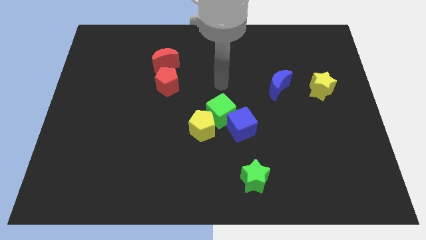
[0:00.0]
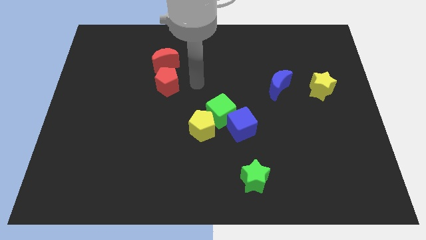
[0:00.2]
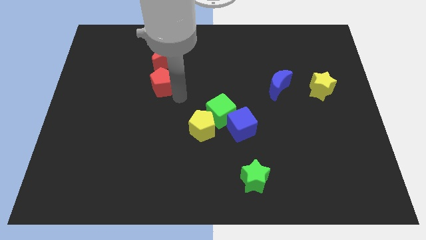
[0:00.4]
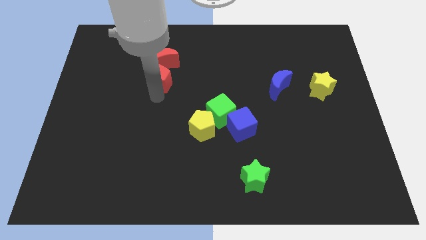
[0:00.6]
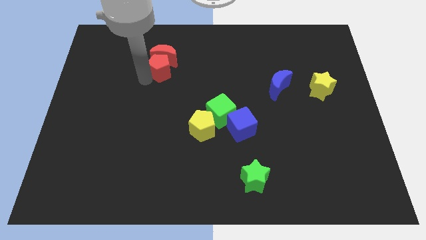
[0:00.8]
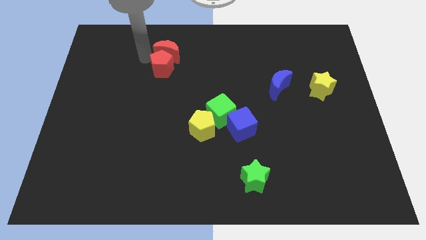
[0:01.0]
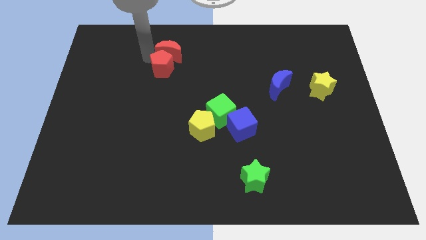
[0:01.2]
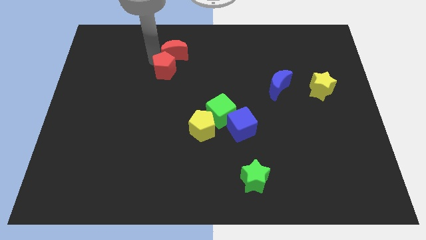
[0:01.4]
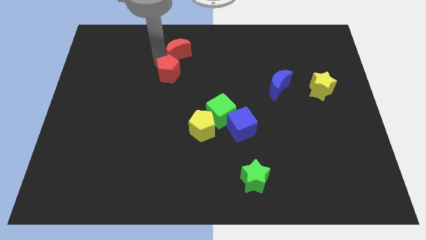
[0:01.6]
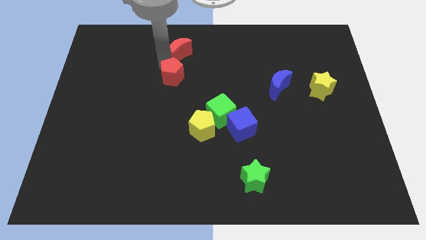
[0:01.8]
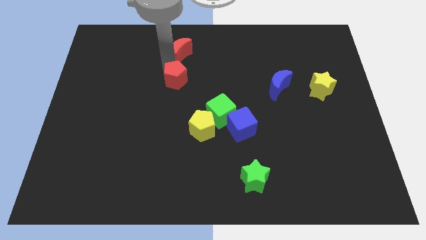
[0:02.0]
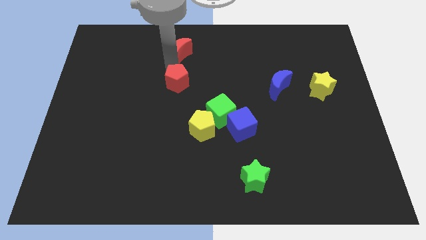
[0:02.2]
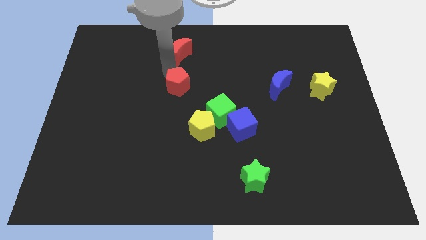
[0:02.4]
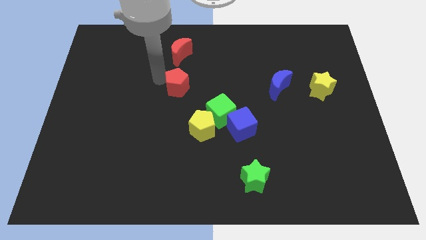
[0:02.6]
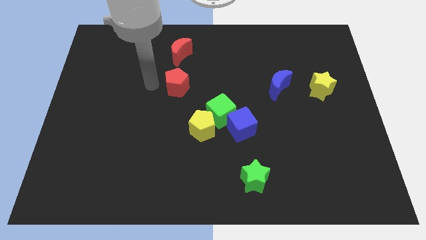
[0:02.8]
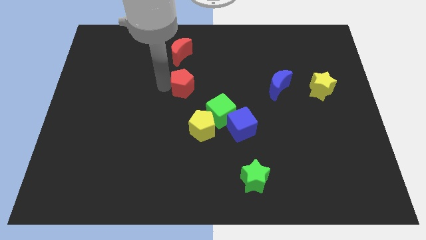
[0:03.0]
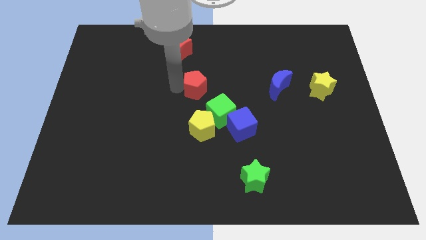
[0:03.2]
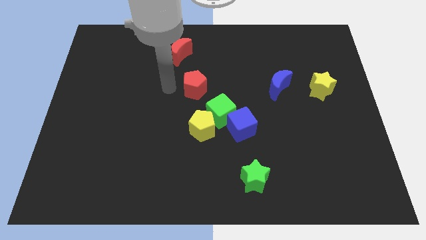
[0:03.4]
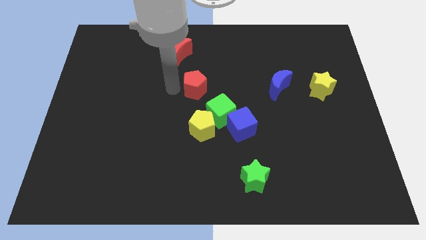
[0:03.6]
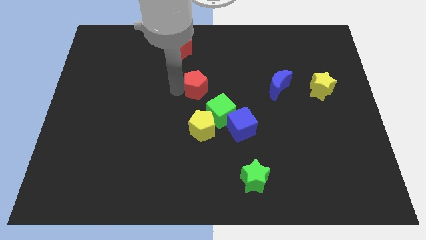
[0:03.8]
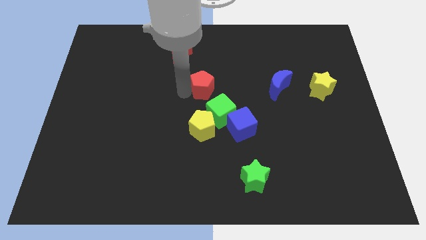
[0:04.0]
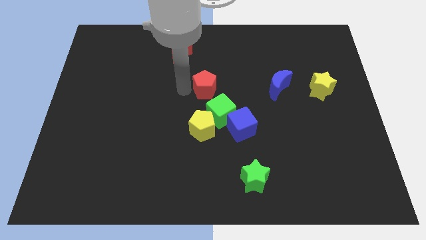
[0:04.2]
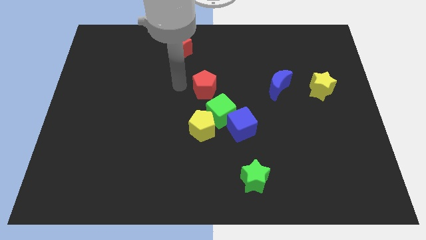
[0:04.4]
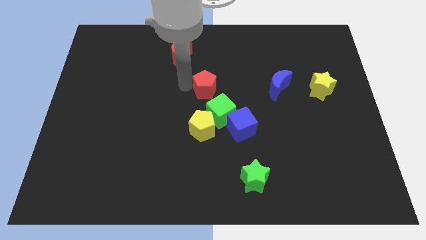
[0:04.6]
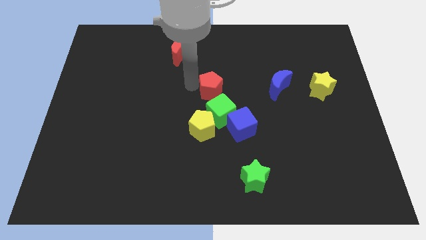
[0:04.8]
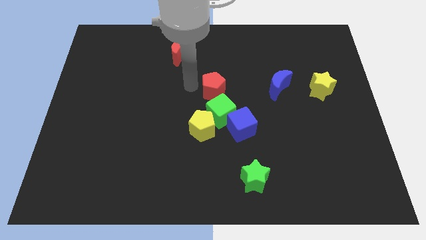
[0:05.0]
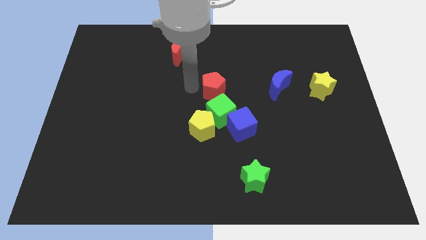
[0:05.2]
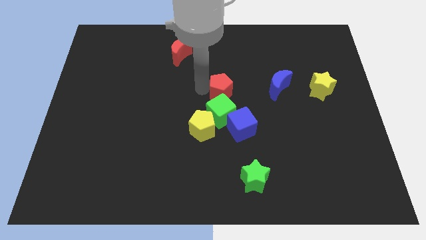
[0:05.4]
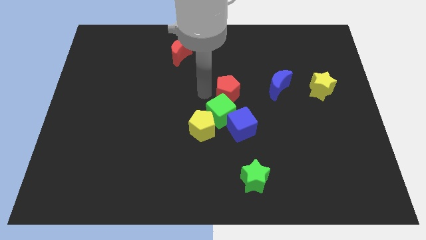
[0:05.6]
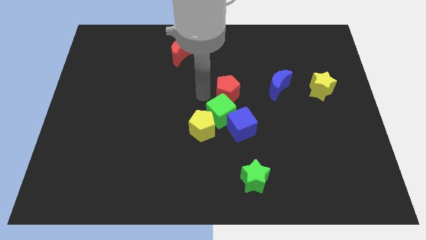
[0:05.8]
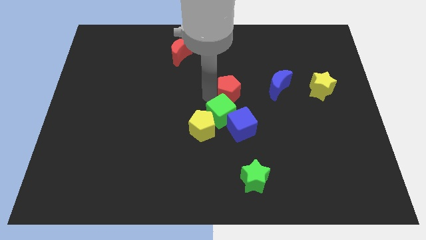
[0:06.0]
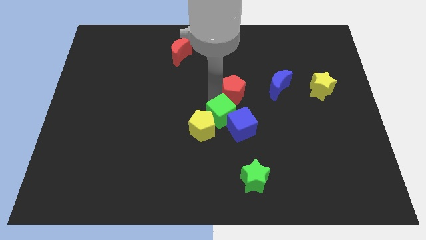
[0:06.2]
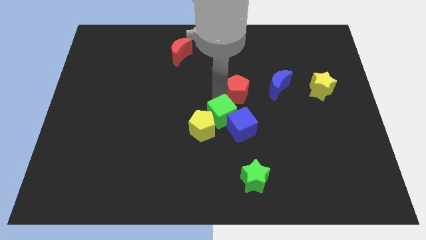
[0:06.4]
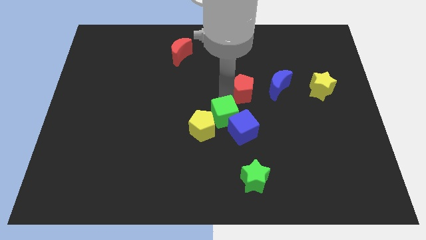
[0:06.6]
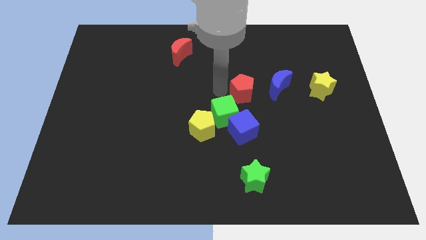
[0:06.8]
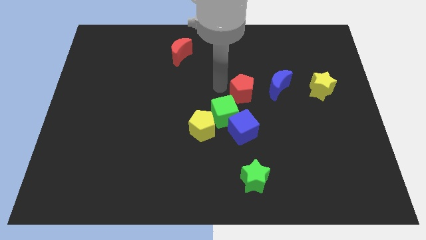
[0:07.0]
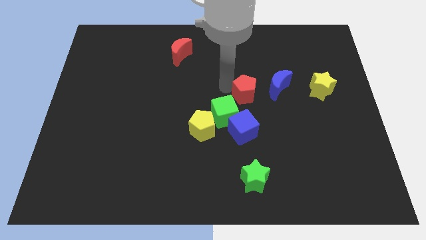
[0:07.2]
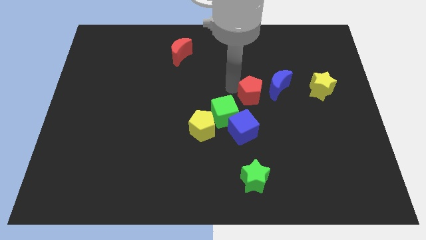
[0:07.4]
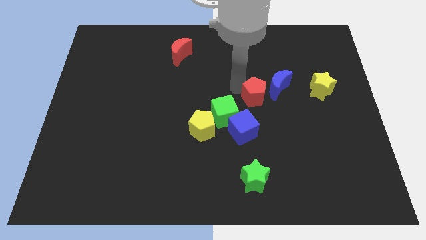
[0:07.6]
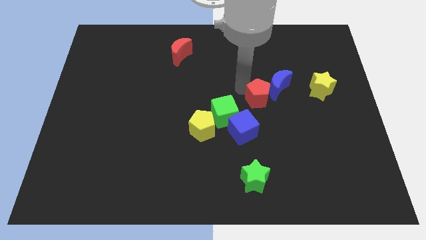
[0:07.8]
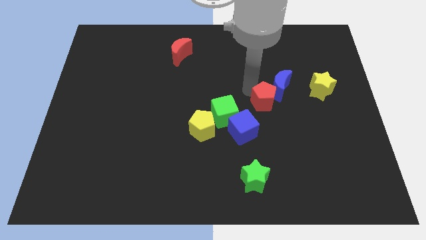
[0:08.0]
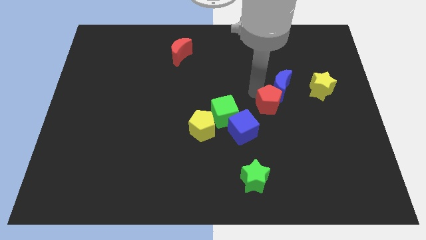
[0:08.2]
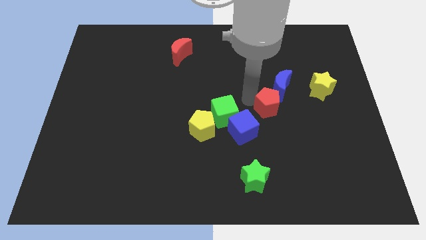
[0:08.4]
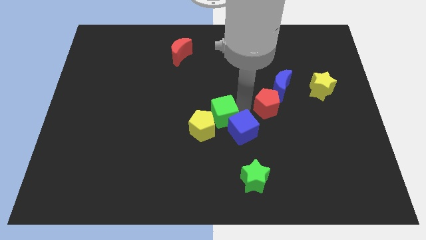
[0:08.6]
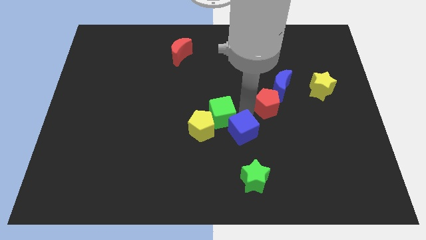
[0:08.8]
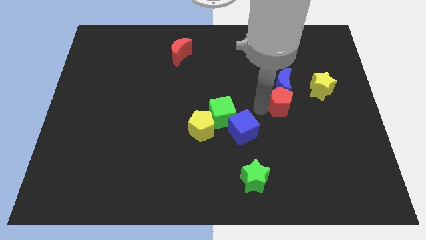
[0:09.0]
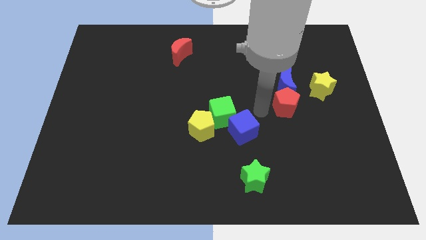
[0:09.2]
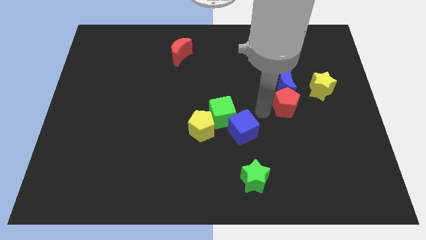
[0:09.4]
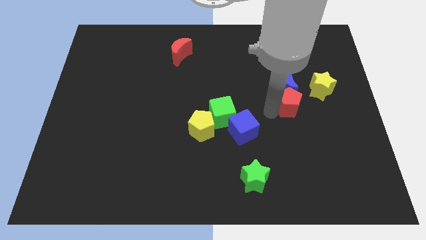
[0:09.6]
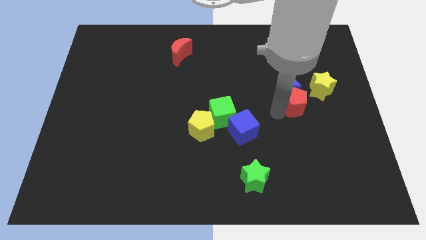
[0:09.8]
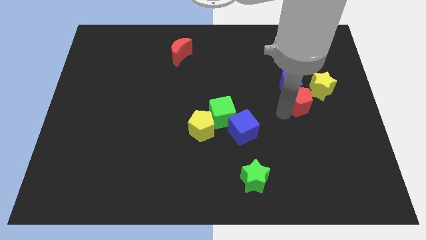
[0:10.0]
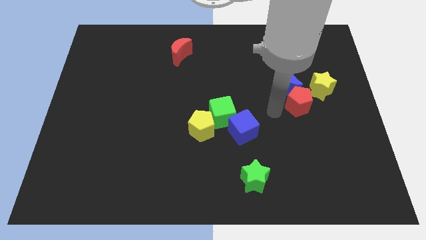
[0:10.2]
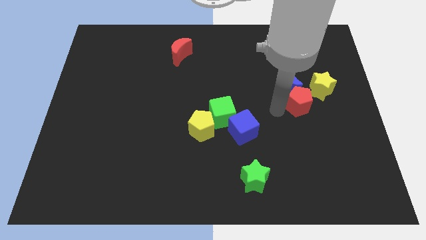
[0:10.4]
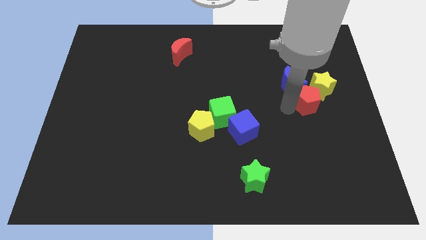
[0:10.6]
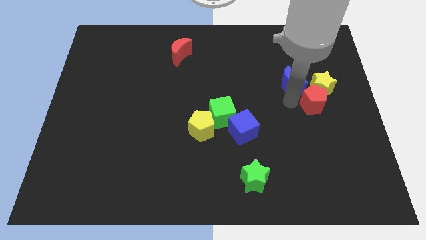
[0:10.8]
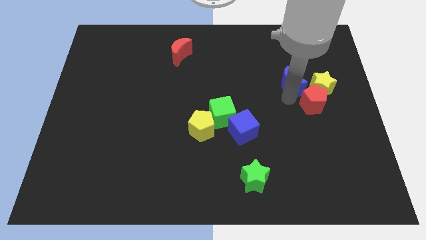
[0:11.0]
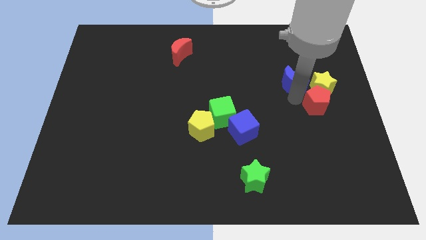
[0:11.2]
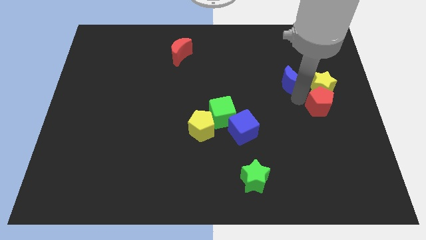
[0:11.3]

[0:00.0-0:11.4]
move the red pentagon to the right side of the board
